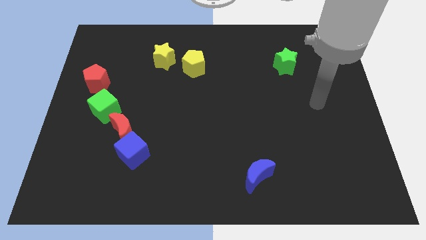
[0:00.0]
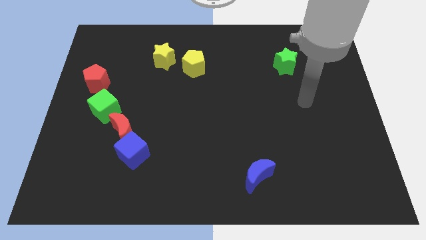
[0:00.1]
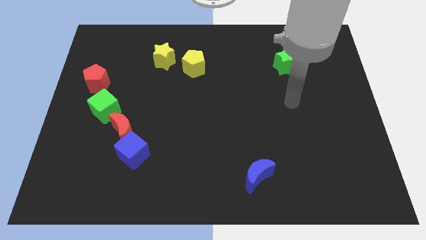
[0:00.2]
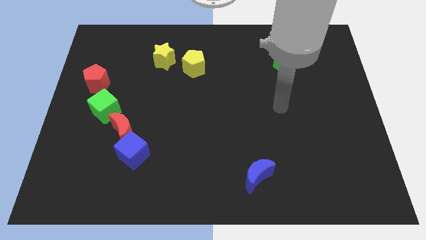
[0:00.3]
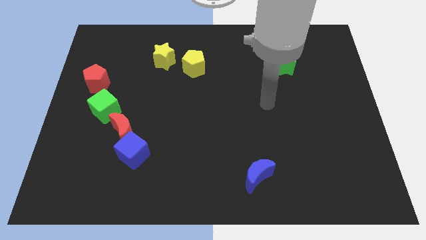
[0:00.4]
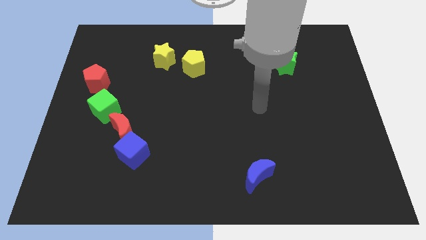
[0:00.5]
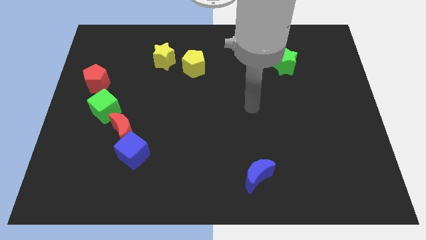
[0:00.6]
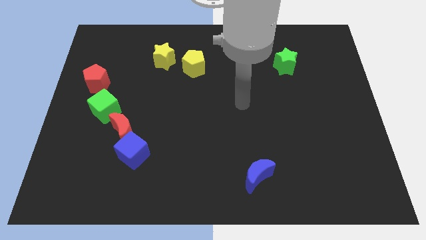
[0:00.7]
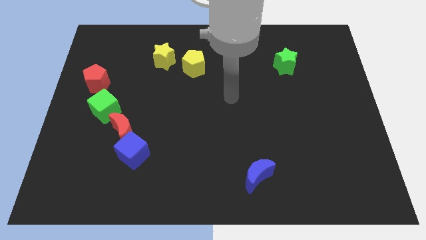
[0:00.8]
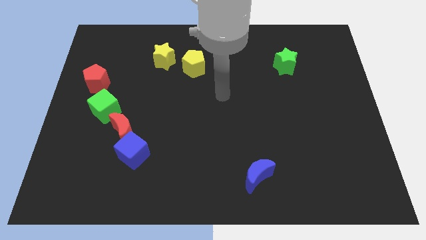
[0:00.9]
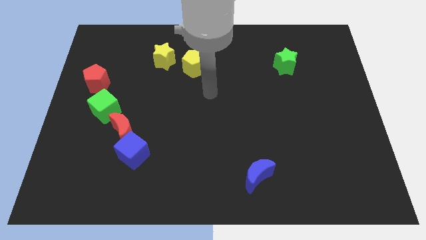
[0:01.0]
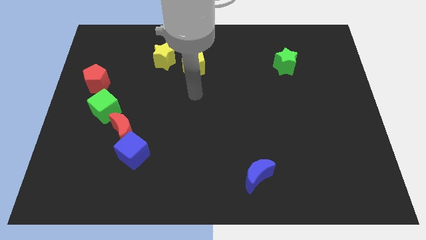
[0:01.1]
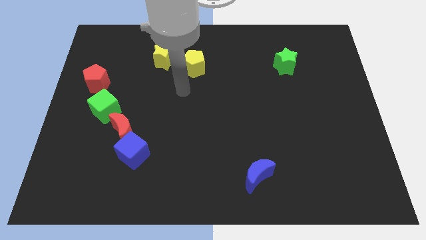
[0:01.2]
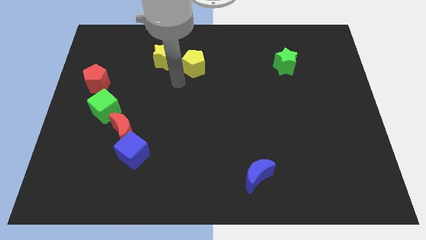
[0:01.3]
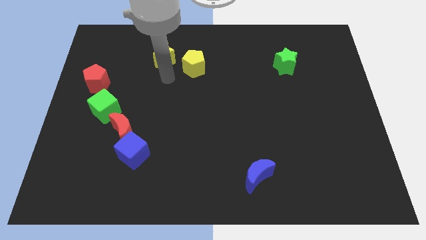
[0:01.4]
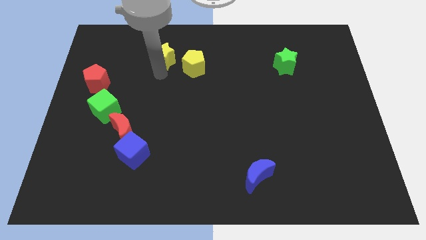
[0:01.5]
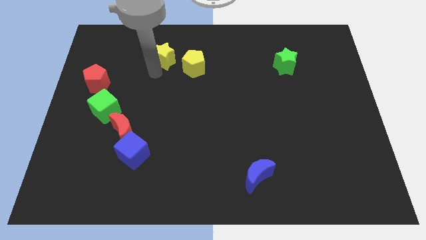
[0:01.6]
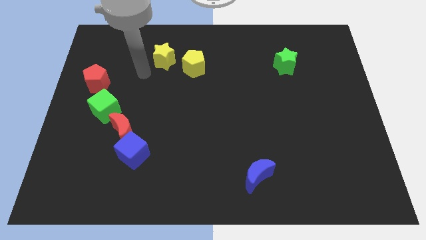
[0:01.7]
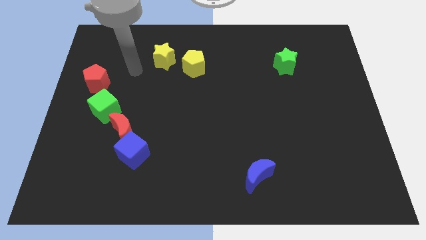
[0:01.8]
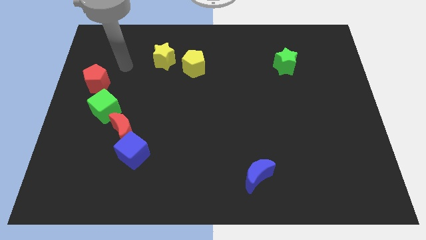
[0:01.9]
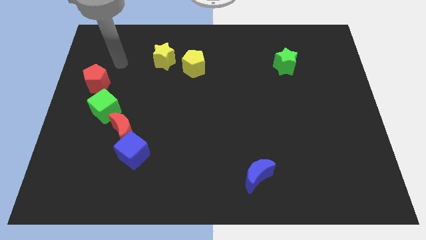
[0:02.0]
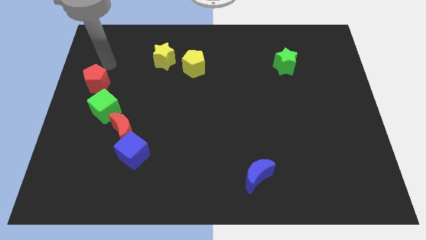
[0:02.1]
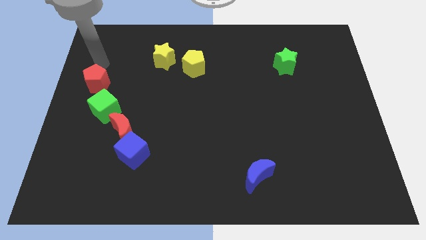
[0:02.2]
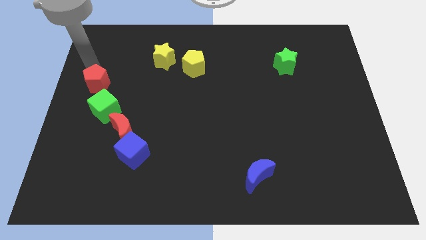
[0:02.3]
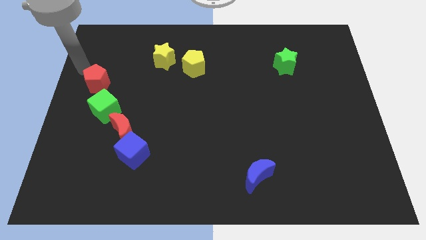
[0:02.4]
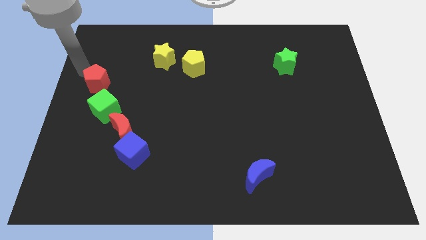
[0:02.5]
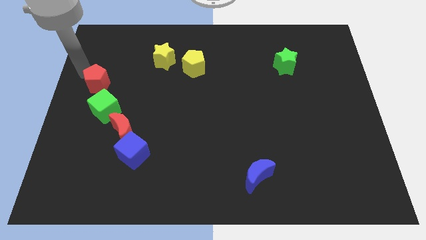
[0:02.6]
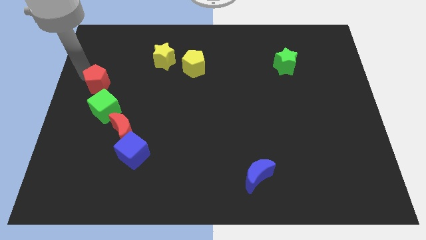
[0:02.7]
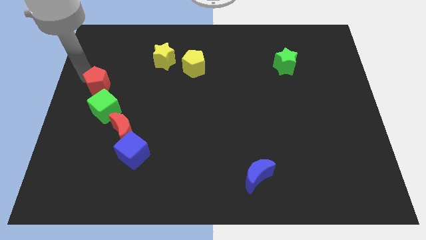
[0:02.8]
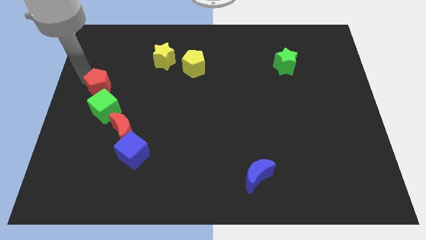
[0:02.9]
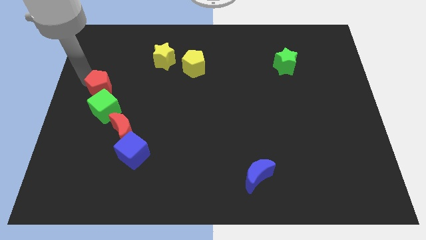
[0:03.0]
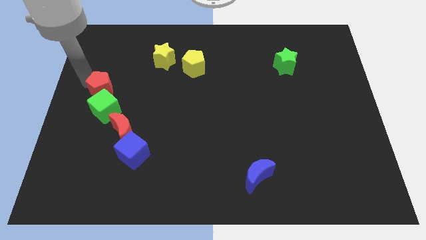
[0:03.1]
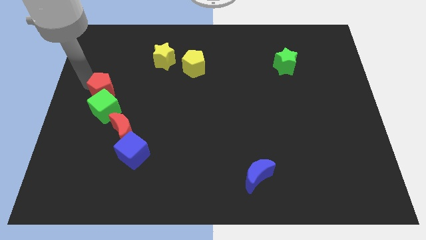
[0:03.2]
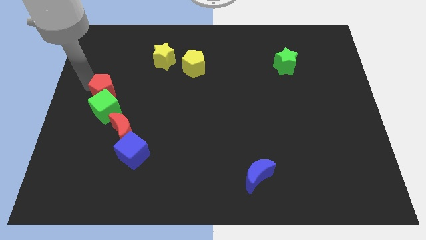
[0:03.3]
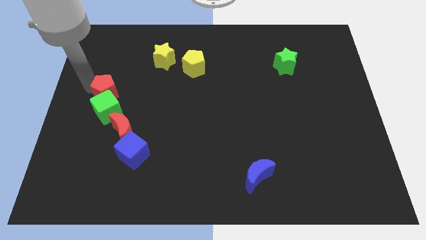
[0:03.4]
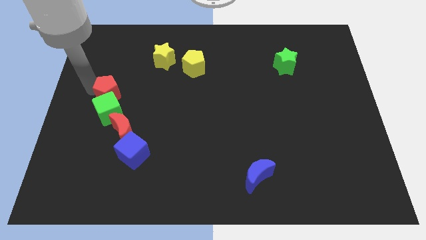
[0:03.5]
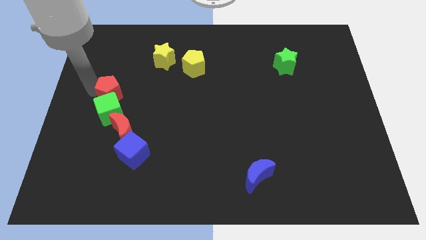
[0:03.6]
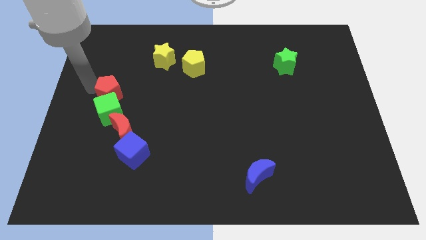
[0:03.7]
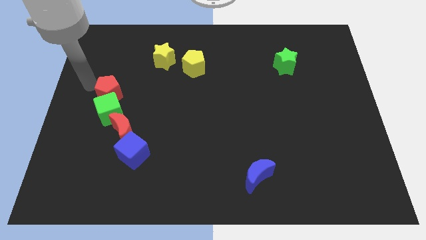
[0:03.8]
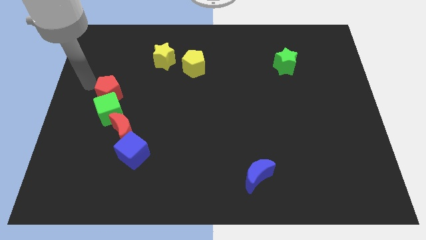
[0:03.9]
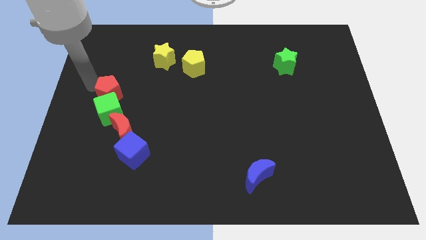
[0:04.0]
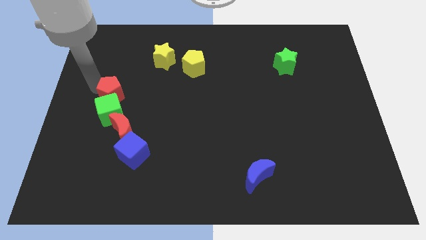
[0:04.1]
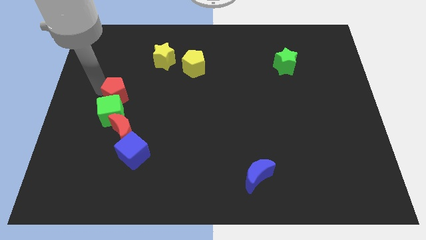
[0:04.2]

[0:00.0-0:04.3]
slightly move the red pentagon down and to the right

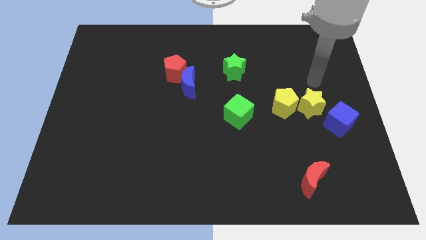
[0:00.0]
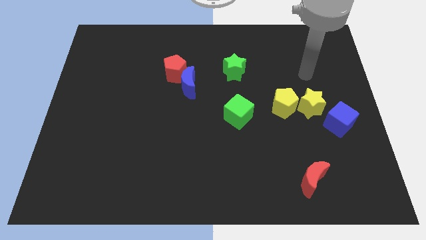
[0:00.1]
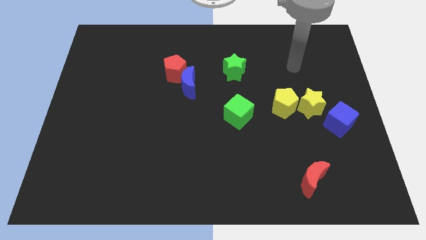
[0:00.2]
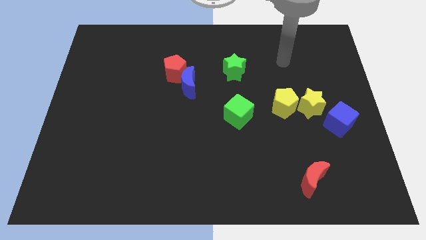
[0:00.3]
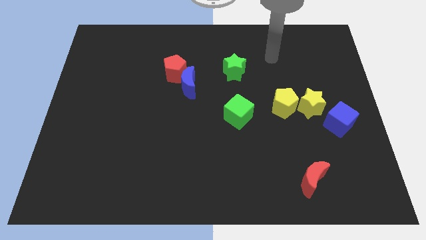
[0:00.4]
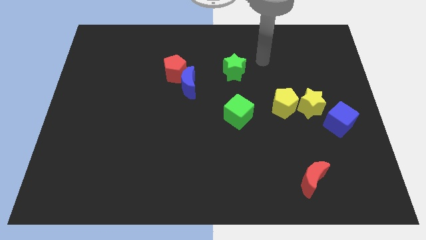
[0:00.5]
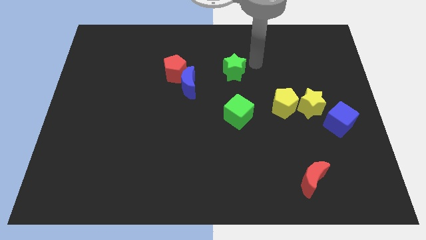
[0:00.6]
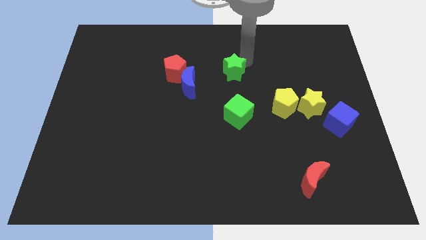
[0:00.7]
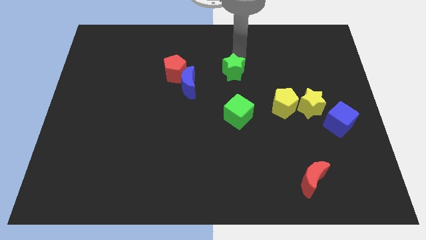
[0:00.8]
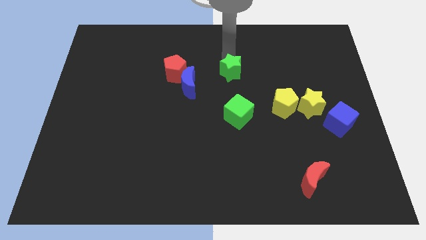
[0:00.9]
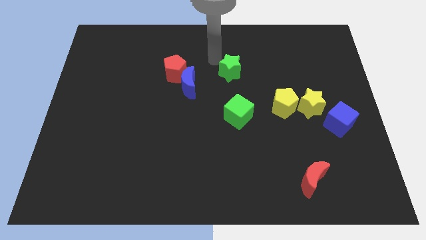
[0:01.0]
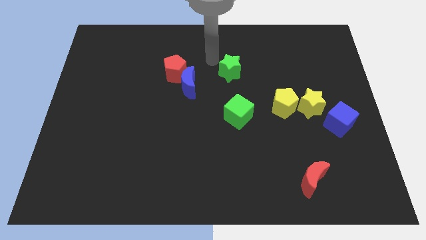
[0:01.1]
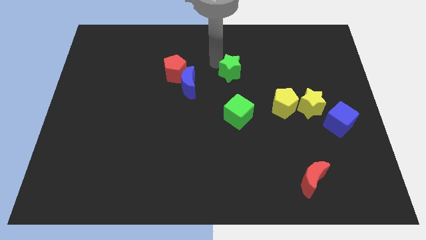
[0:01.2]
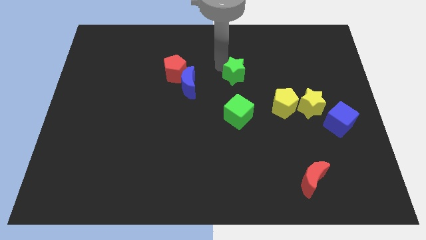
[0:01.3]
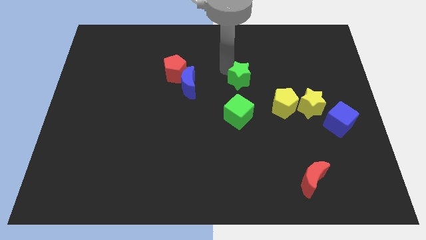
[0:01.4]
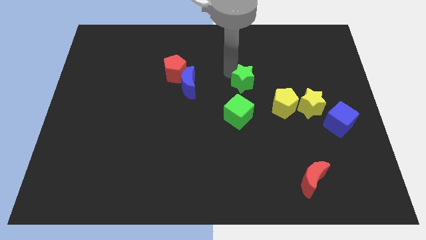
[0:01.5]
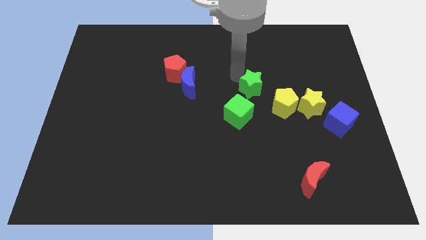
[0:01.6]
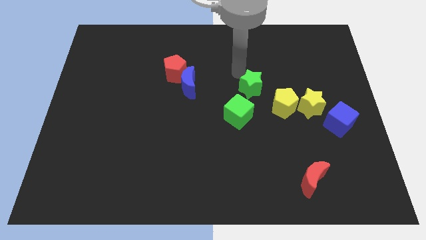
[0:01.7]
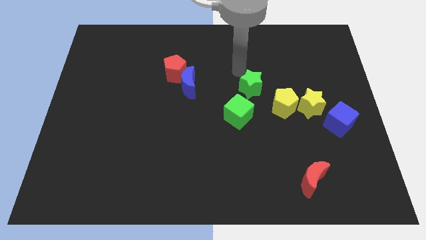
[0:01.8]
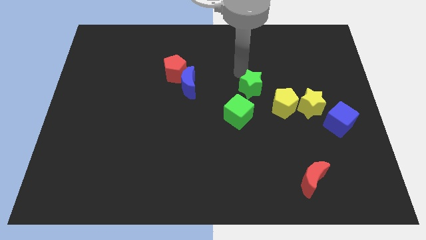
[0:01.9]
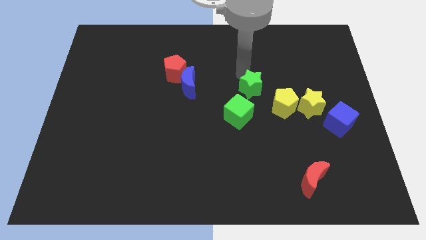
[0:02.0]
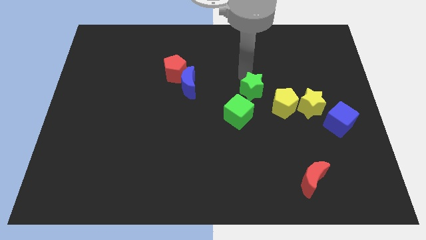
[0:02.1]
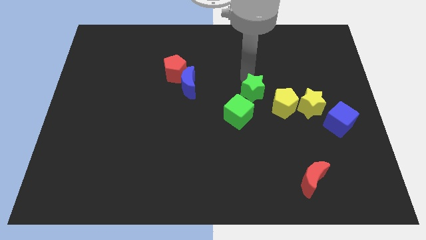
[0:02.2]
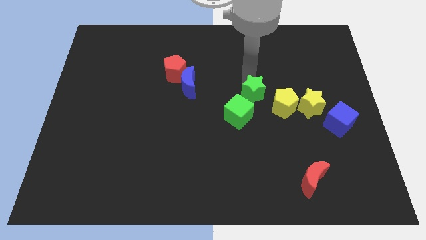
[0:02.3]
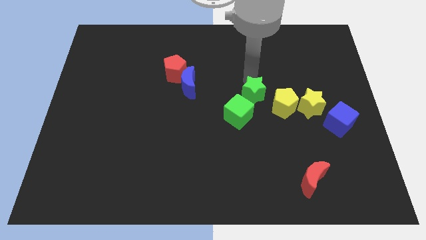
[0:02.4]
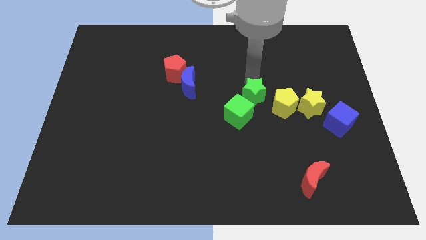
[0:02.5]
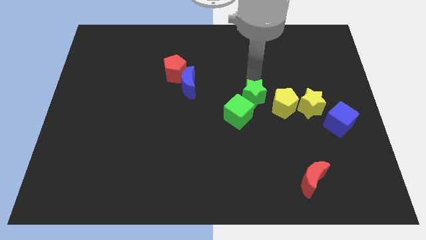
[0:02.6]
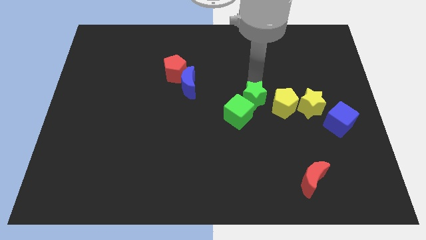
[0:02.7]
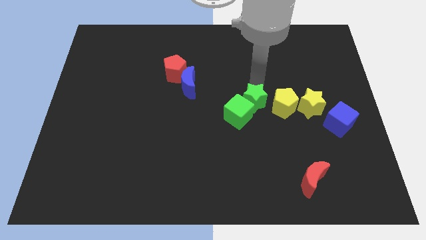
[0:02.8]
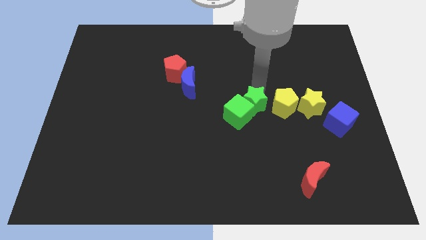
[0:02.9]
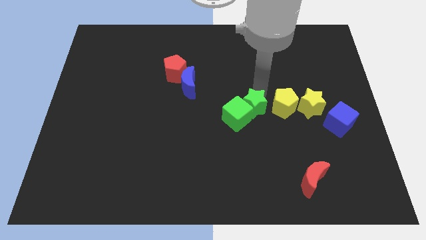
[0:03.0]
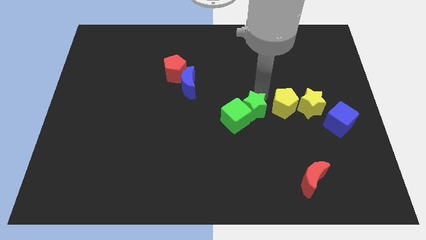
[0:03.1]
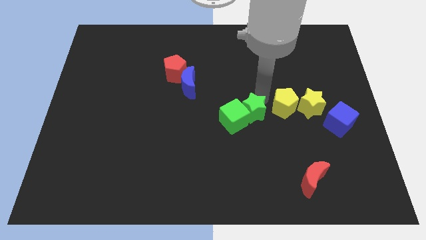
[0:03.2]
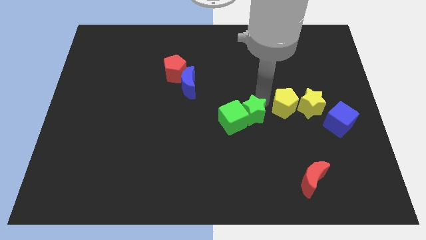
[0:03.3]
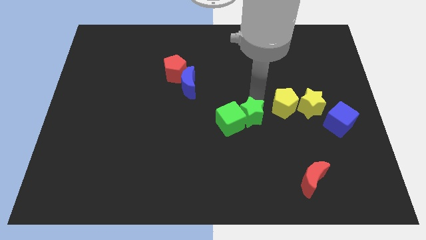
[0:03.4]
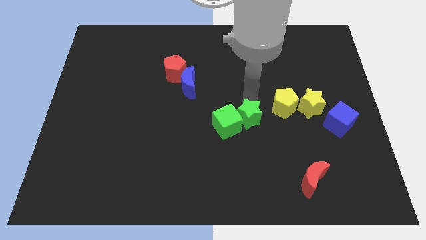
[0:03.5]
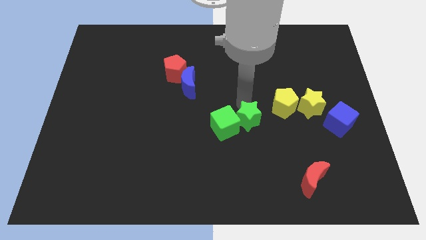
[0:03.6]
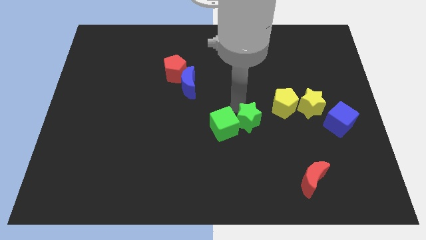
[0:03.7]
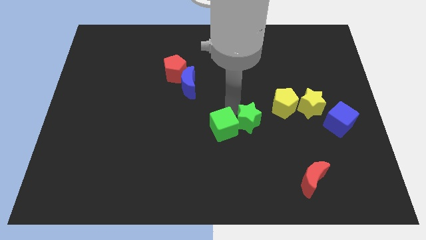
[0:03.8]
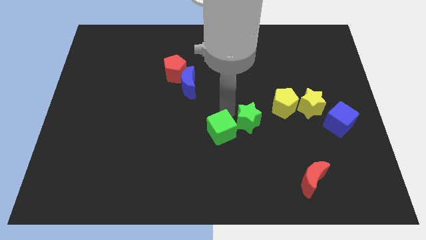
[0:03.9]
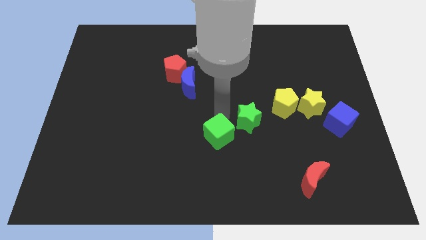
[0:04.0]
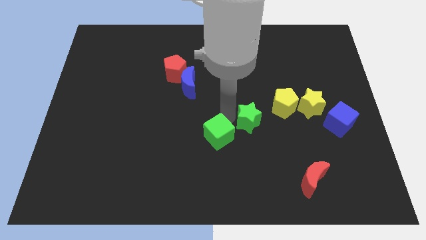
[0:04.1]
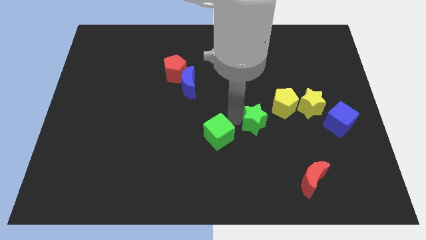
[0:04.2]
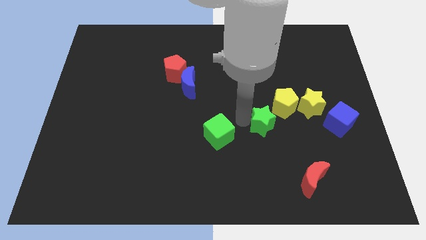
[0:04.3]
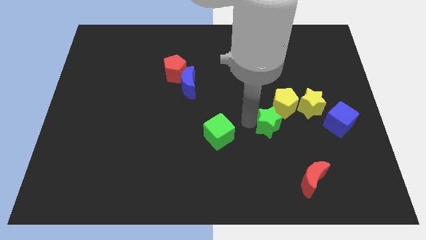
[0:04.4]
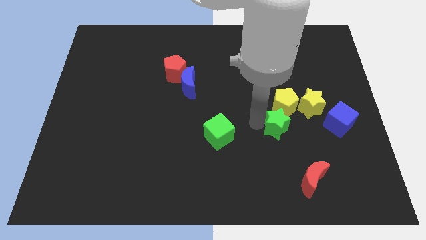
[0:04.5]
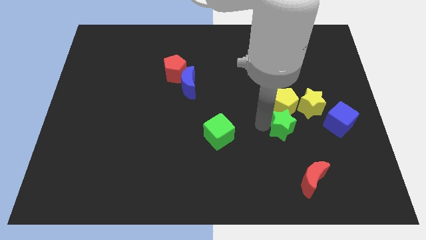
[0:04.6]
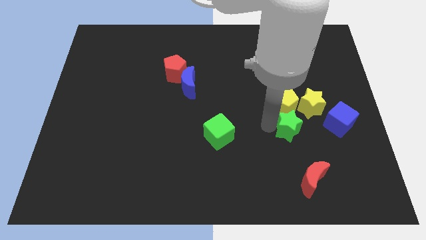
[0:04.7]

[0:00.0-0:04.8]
slide the green star diagonally down and right
